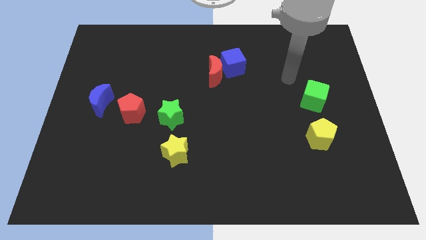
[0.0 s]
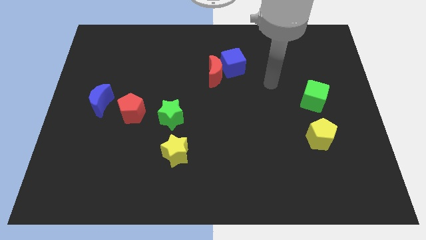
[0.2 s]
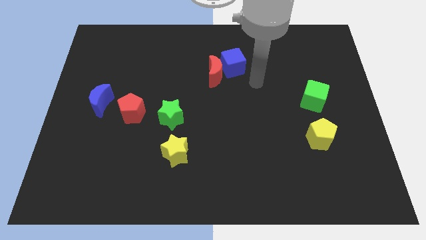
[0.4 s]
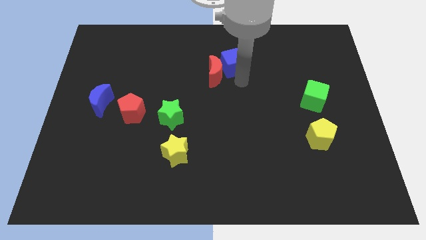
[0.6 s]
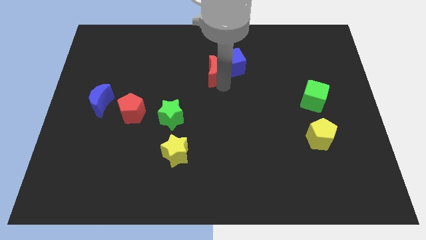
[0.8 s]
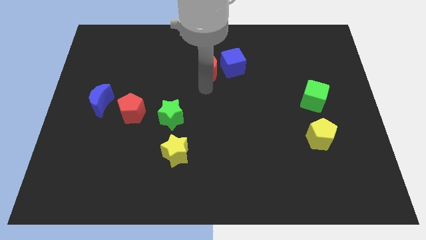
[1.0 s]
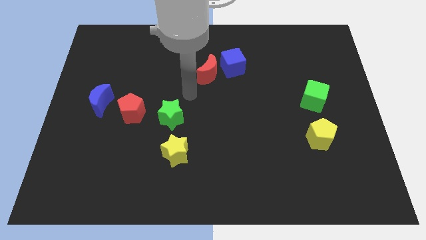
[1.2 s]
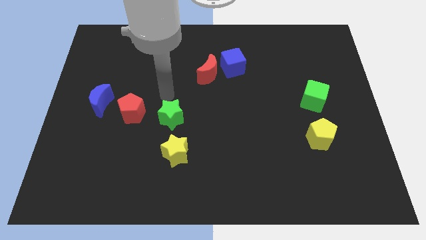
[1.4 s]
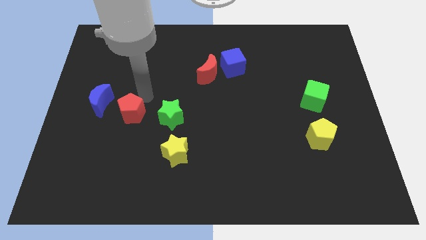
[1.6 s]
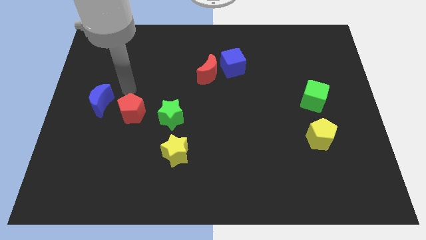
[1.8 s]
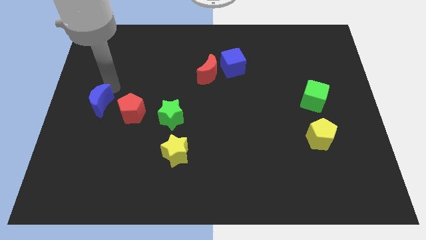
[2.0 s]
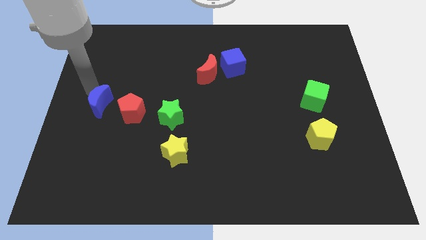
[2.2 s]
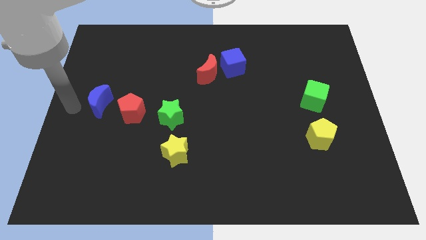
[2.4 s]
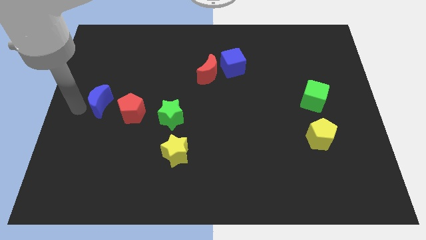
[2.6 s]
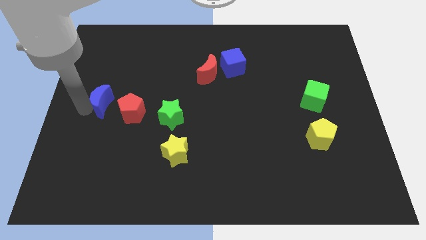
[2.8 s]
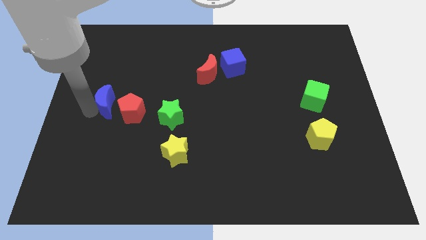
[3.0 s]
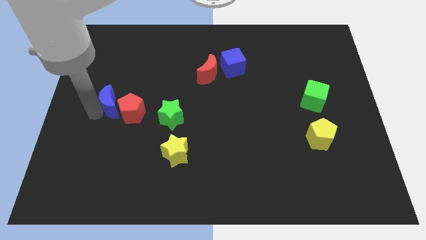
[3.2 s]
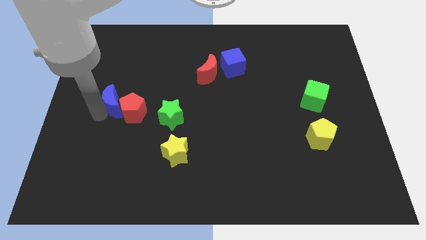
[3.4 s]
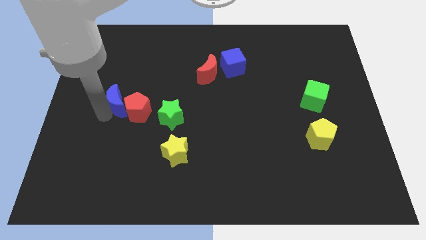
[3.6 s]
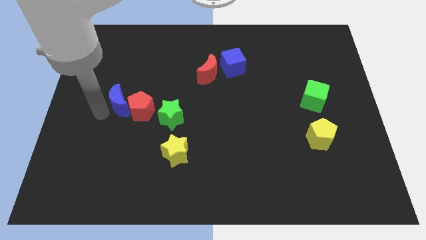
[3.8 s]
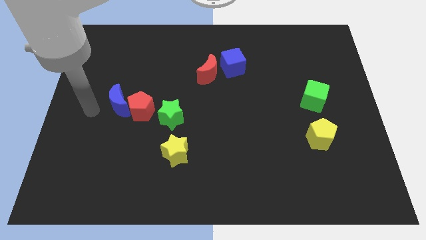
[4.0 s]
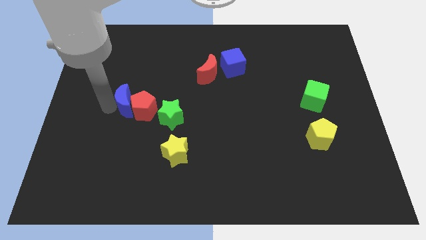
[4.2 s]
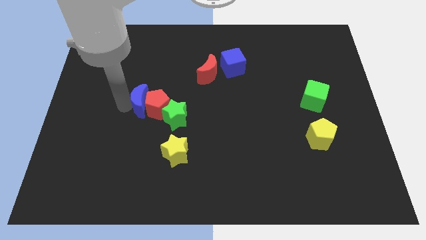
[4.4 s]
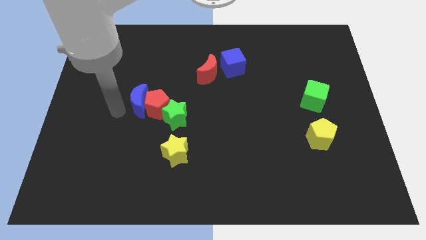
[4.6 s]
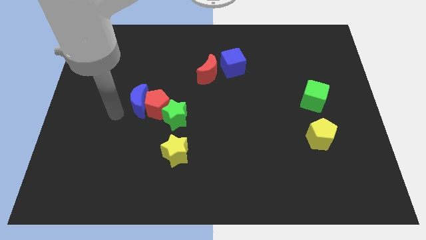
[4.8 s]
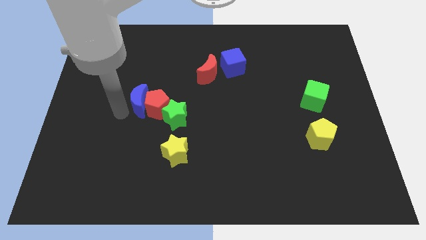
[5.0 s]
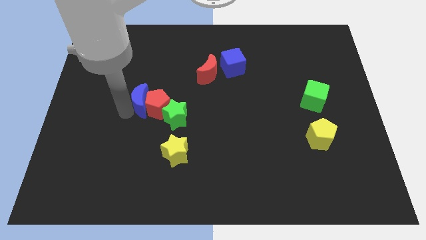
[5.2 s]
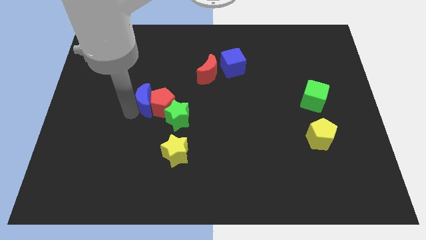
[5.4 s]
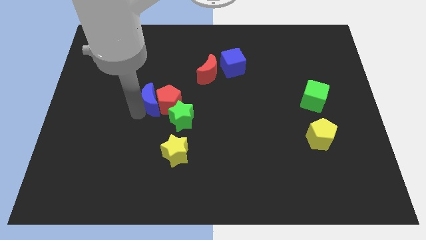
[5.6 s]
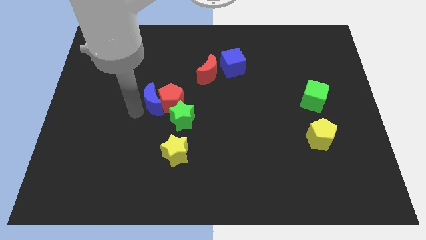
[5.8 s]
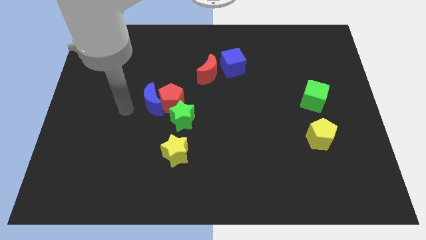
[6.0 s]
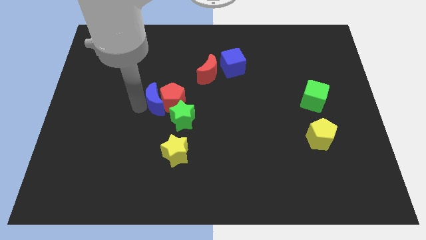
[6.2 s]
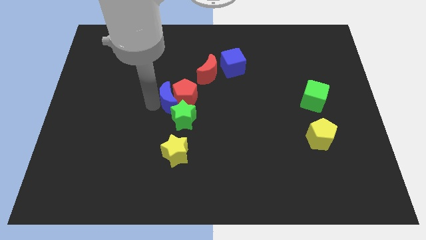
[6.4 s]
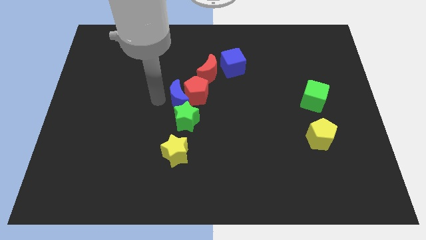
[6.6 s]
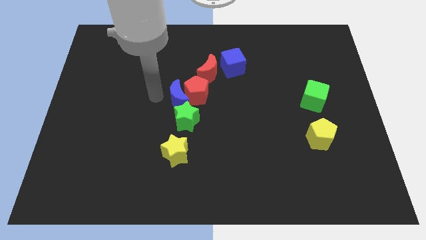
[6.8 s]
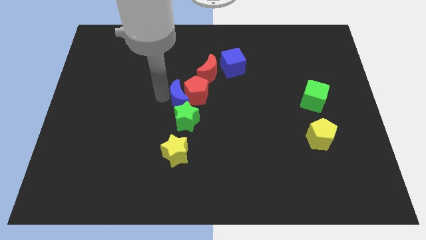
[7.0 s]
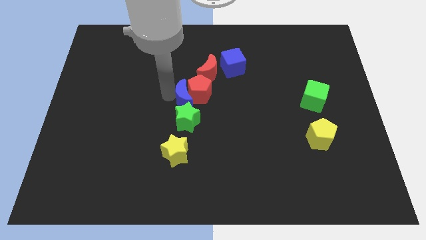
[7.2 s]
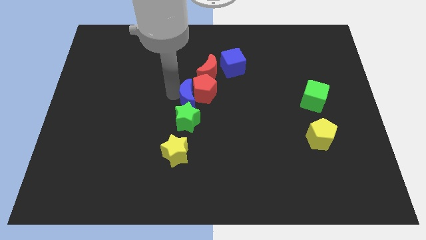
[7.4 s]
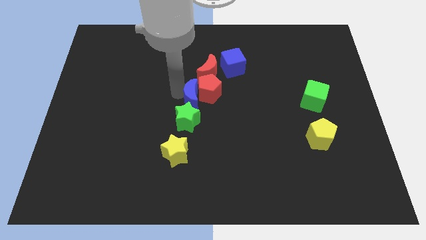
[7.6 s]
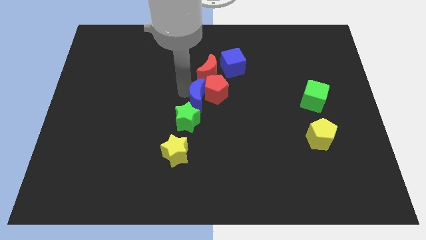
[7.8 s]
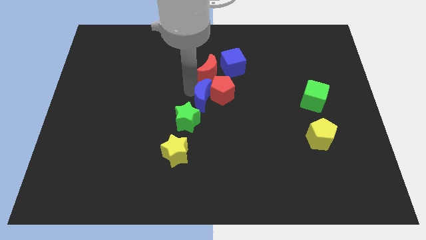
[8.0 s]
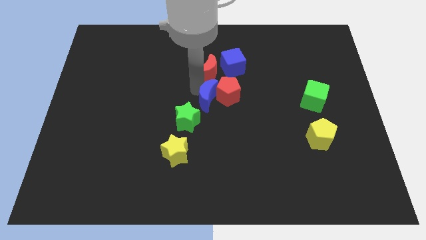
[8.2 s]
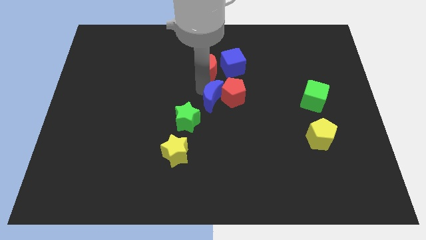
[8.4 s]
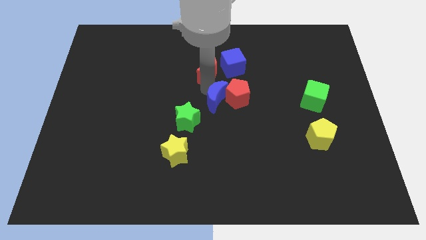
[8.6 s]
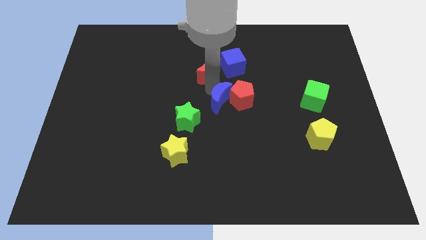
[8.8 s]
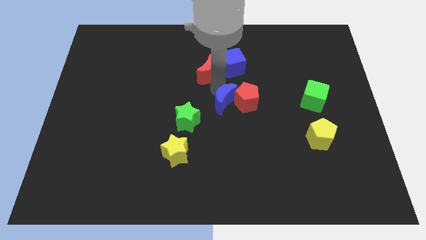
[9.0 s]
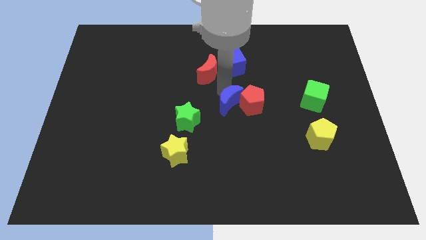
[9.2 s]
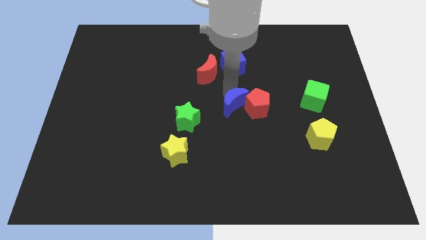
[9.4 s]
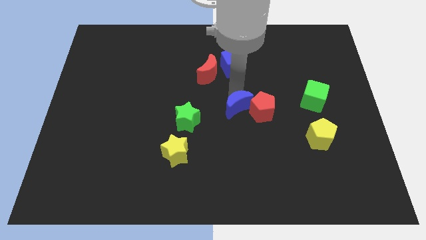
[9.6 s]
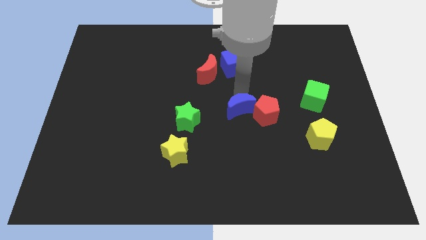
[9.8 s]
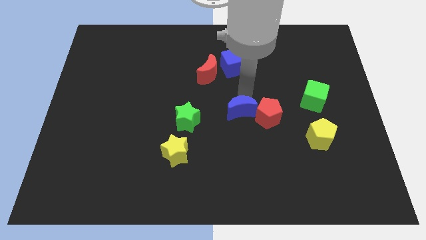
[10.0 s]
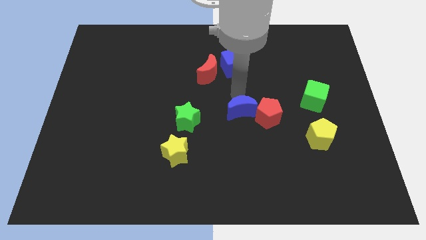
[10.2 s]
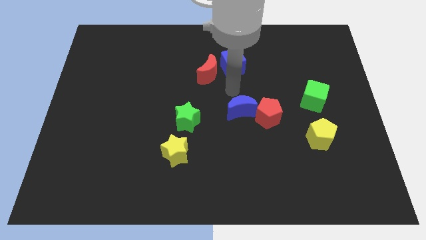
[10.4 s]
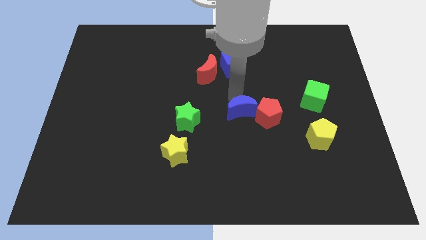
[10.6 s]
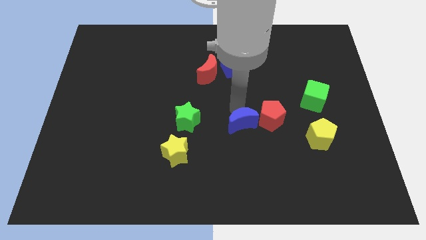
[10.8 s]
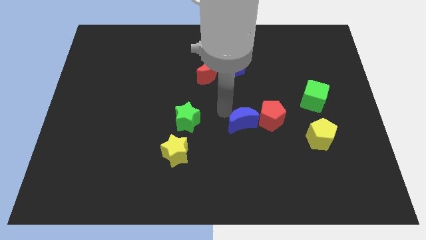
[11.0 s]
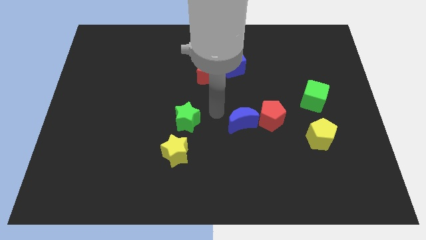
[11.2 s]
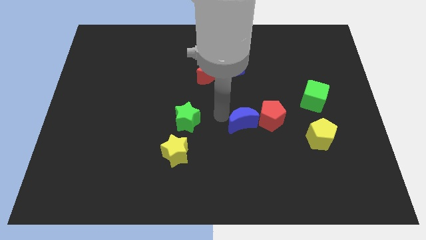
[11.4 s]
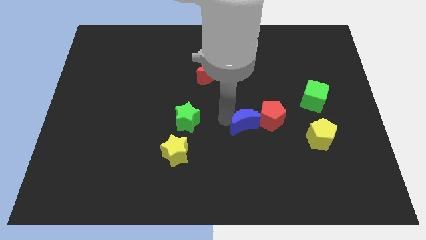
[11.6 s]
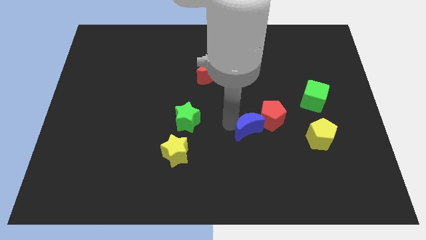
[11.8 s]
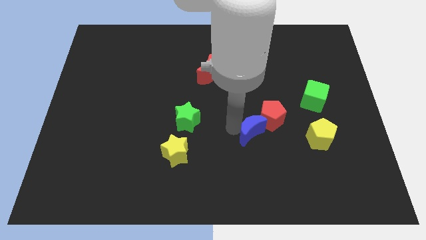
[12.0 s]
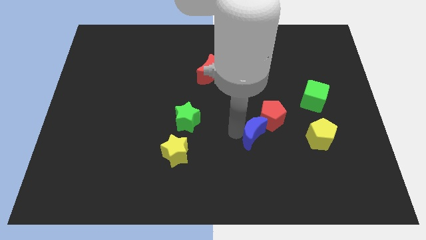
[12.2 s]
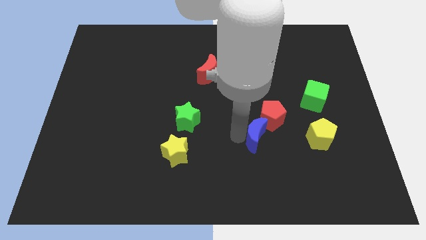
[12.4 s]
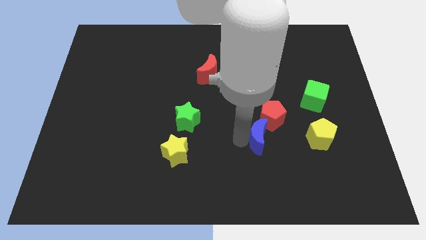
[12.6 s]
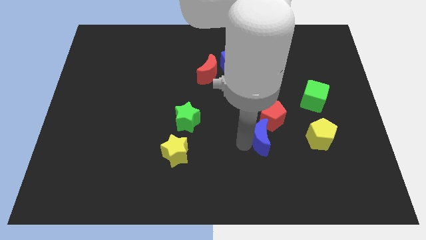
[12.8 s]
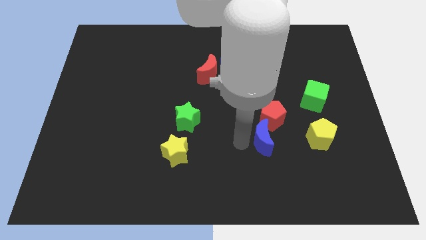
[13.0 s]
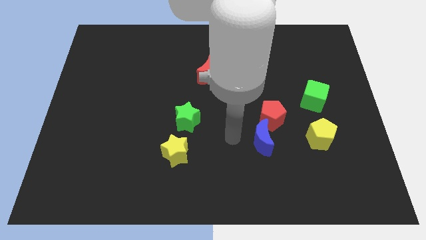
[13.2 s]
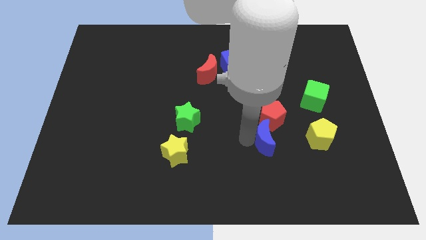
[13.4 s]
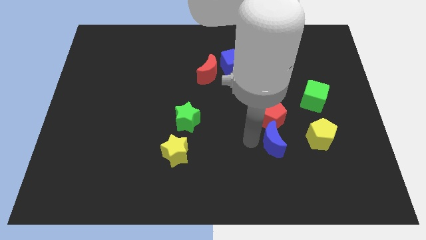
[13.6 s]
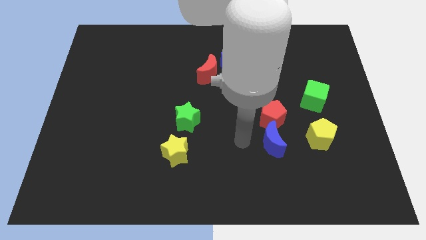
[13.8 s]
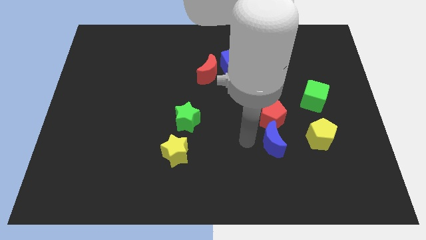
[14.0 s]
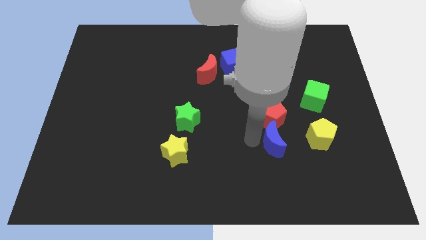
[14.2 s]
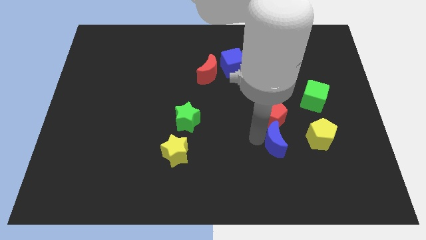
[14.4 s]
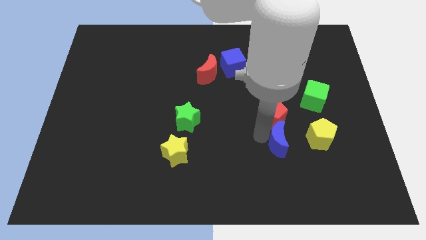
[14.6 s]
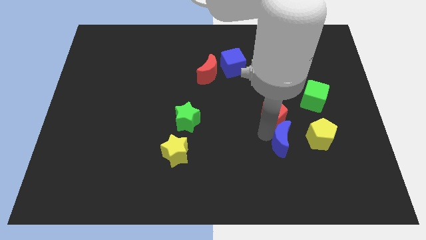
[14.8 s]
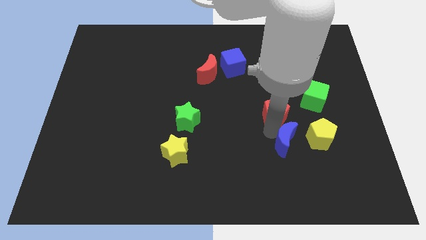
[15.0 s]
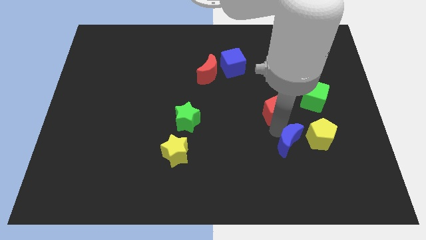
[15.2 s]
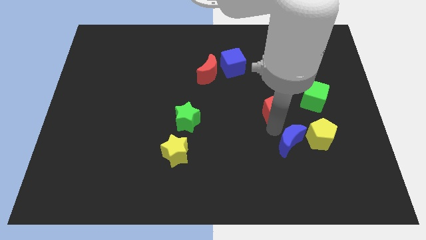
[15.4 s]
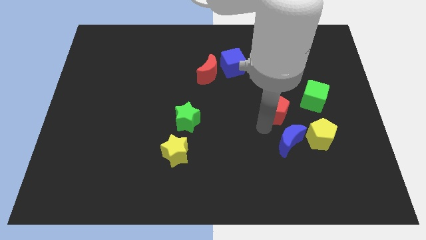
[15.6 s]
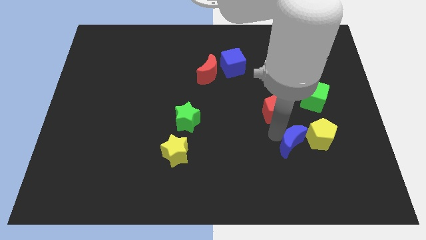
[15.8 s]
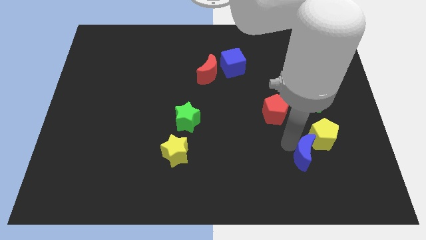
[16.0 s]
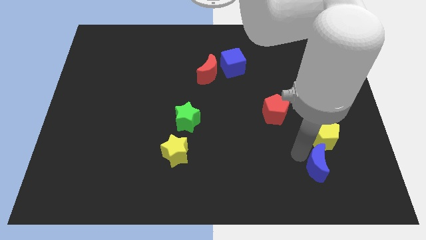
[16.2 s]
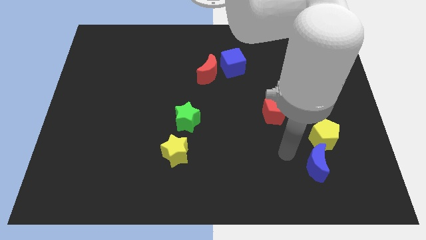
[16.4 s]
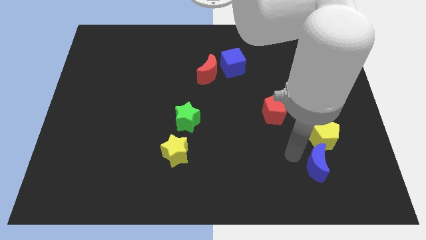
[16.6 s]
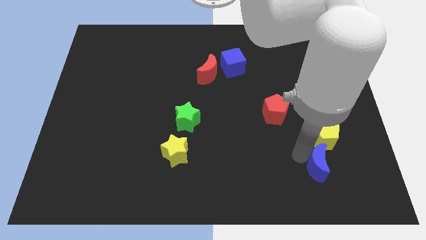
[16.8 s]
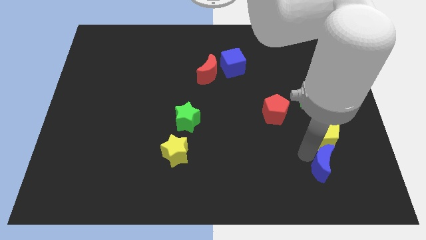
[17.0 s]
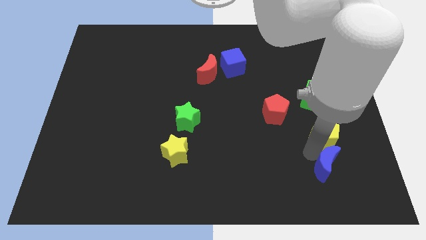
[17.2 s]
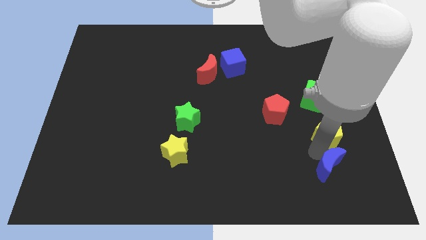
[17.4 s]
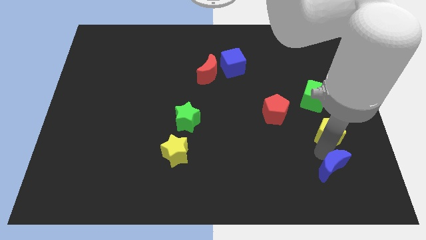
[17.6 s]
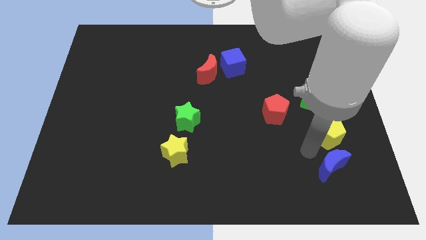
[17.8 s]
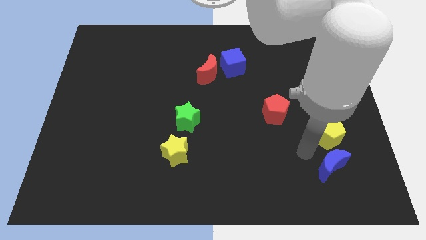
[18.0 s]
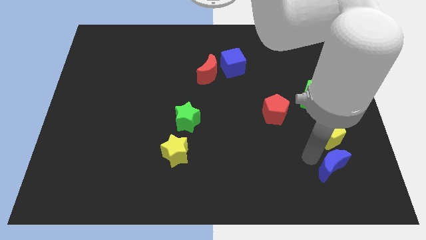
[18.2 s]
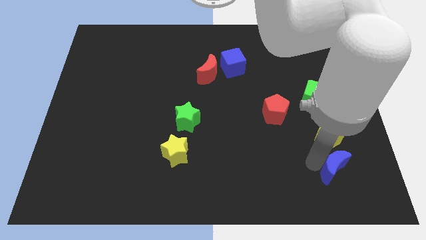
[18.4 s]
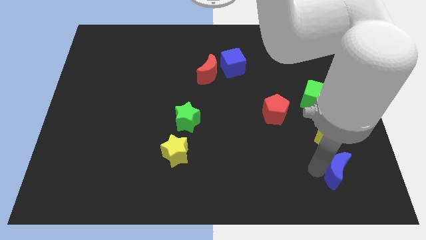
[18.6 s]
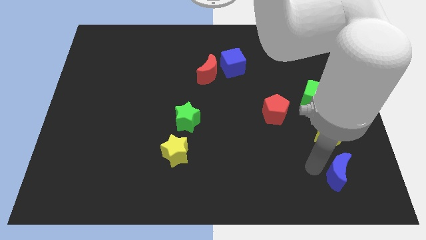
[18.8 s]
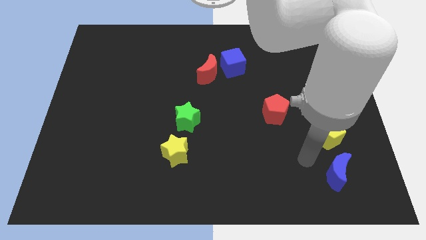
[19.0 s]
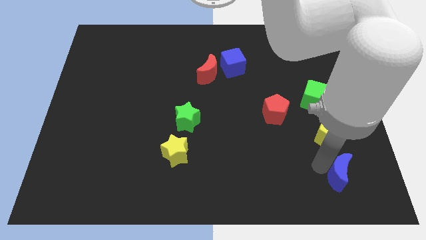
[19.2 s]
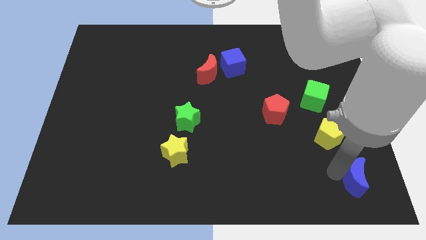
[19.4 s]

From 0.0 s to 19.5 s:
put the blue moon to the bottom right
